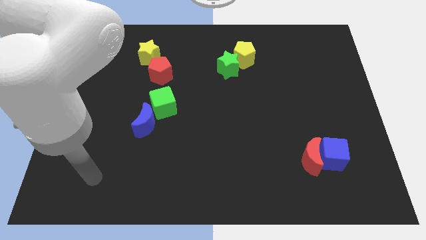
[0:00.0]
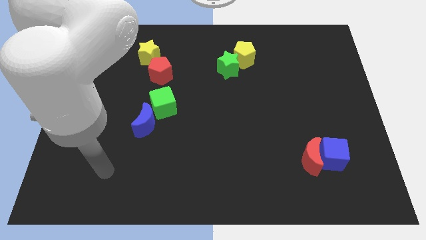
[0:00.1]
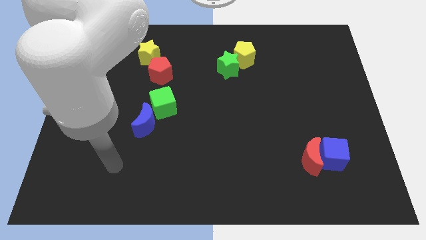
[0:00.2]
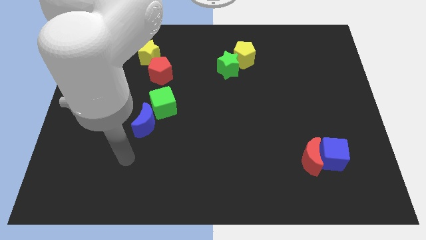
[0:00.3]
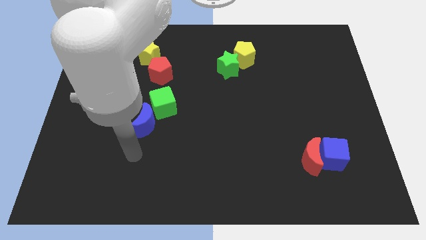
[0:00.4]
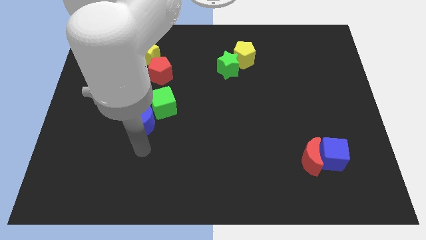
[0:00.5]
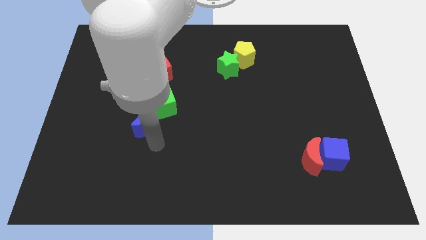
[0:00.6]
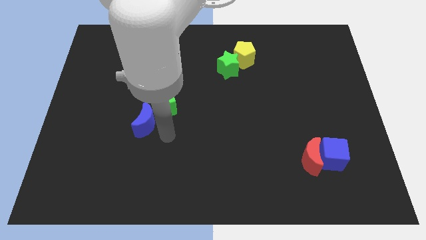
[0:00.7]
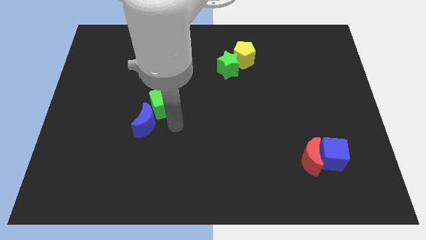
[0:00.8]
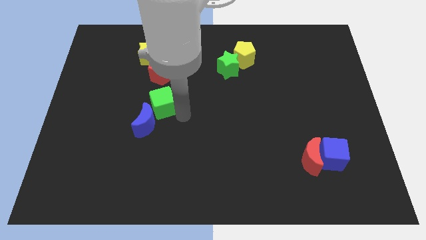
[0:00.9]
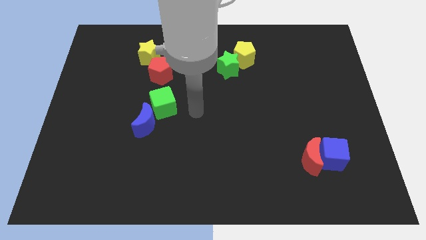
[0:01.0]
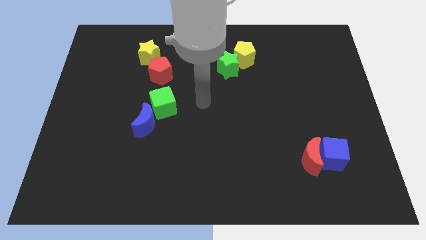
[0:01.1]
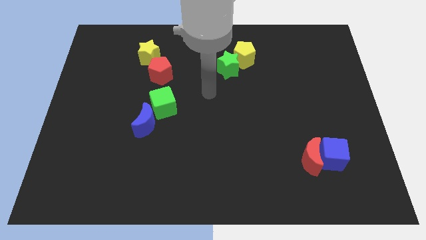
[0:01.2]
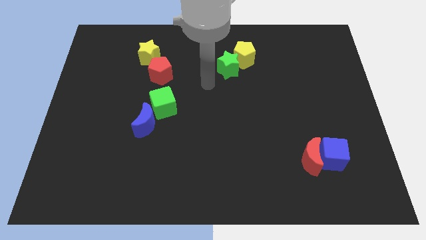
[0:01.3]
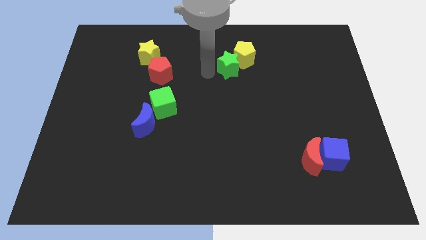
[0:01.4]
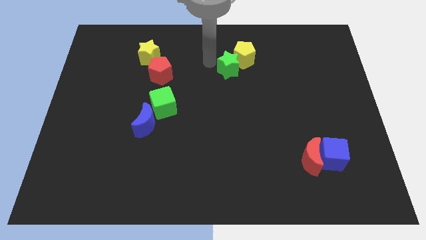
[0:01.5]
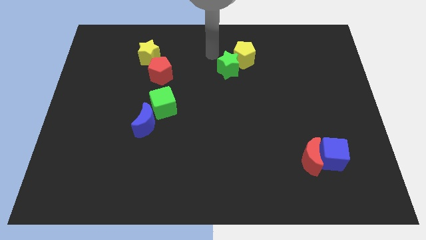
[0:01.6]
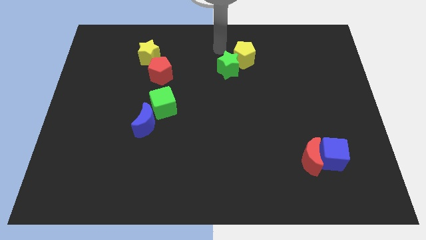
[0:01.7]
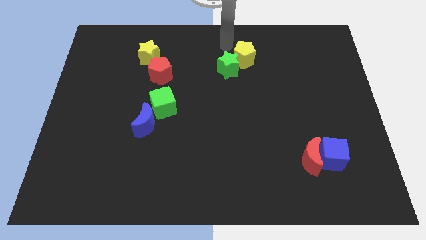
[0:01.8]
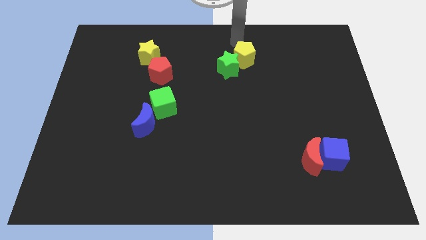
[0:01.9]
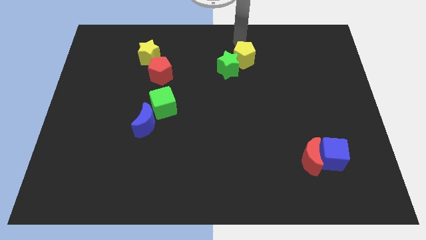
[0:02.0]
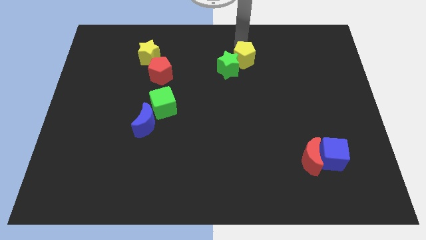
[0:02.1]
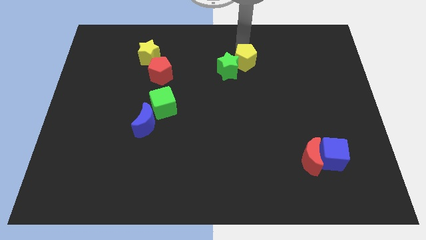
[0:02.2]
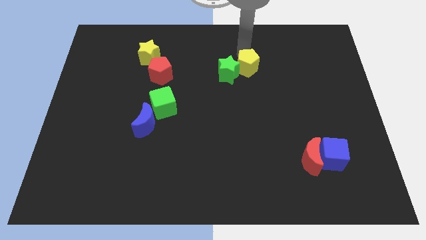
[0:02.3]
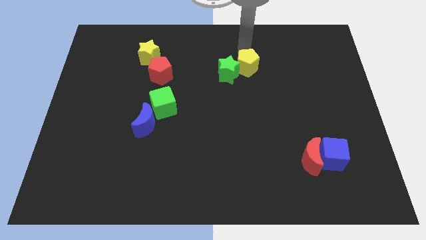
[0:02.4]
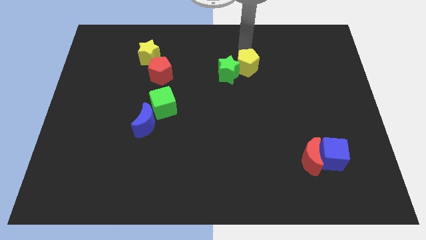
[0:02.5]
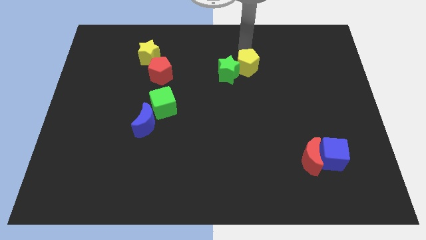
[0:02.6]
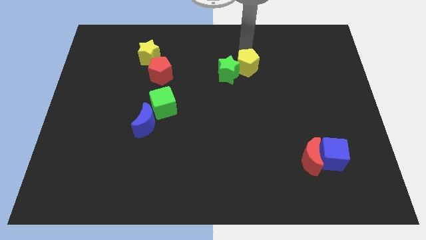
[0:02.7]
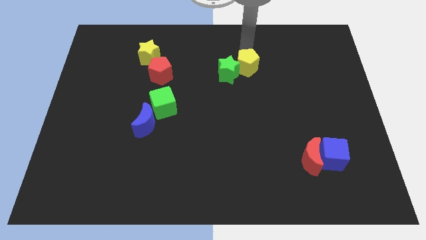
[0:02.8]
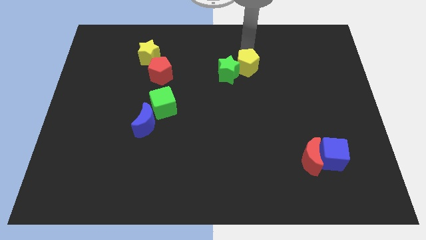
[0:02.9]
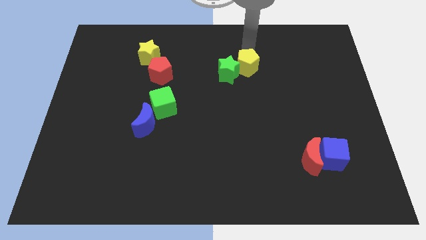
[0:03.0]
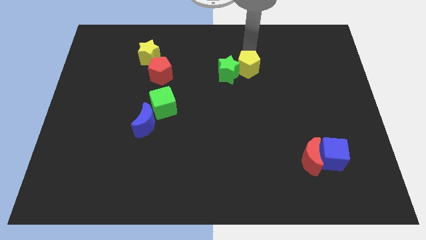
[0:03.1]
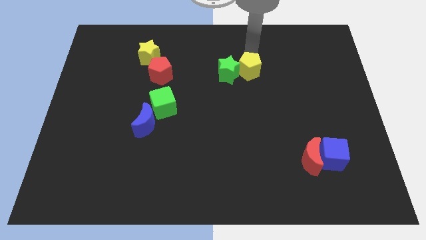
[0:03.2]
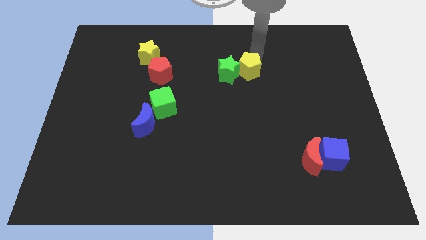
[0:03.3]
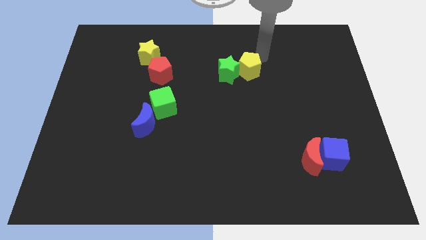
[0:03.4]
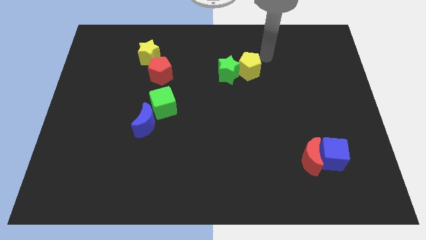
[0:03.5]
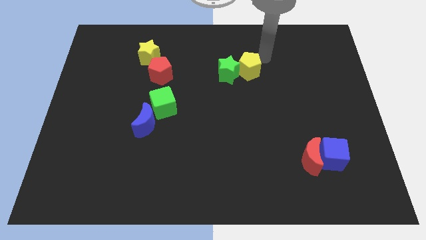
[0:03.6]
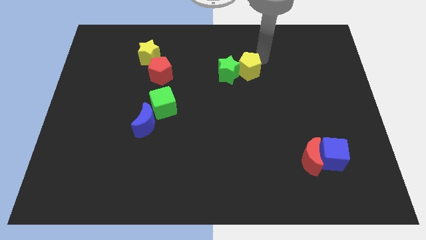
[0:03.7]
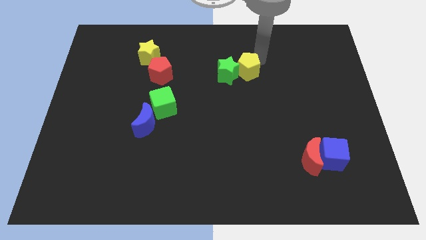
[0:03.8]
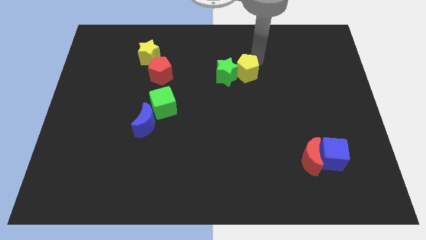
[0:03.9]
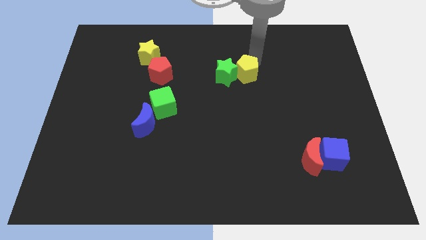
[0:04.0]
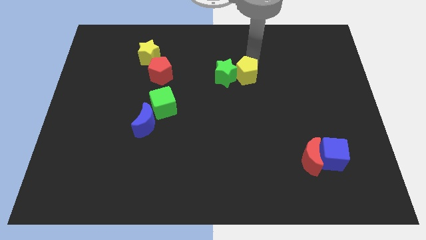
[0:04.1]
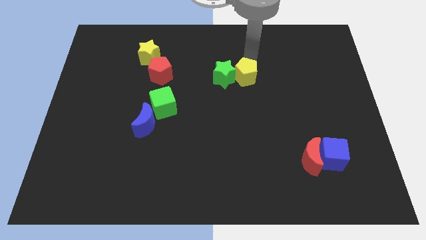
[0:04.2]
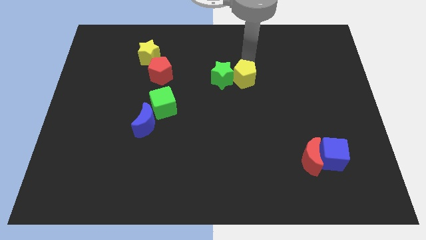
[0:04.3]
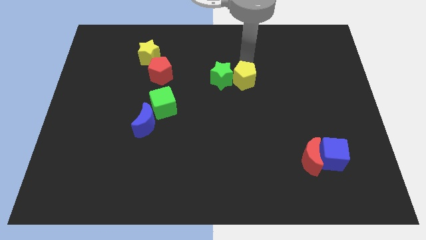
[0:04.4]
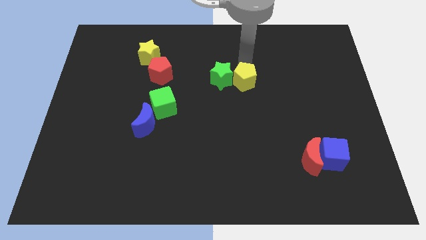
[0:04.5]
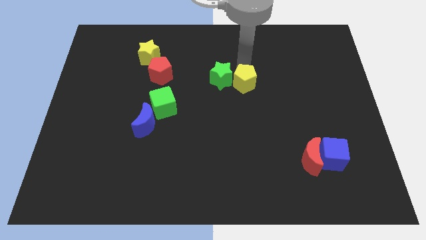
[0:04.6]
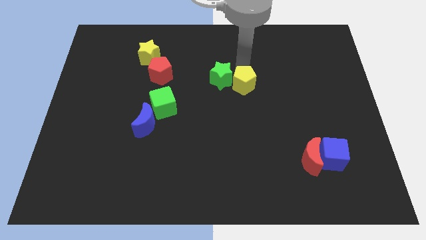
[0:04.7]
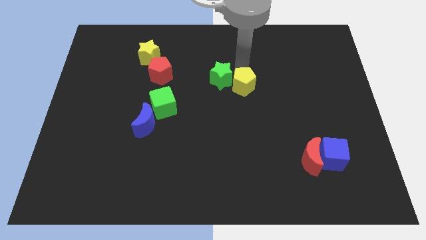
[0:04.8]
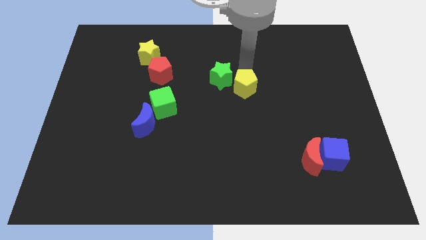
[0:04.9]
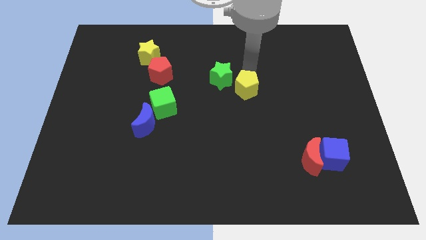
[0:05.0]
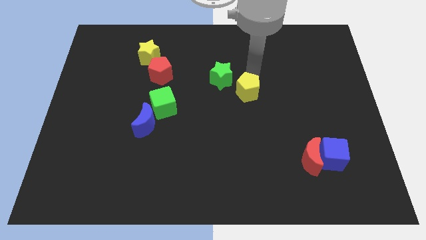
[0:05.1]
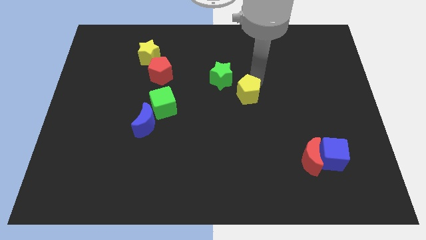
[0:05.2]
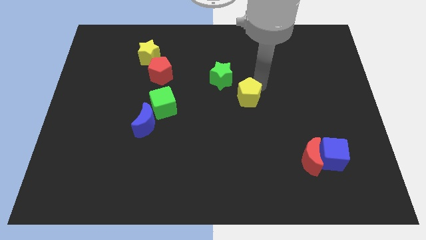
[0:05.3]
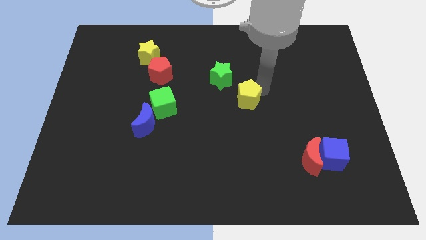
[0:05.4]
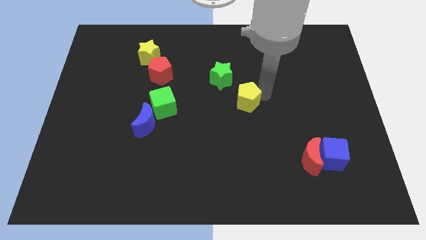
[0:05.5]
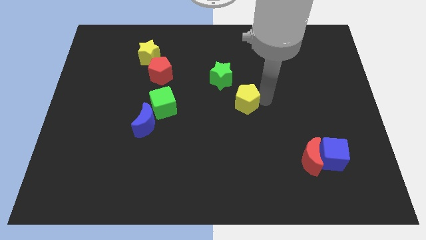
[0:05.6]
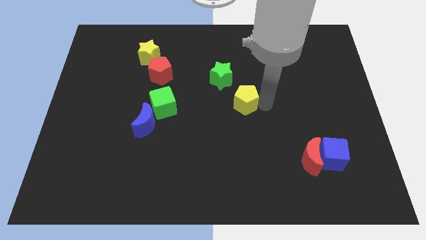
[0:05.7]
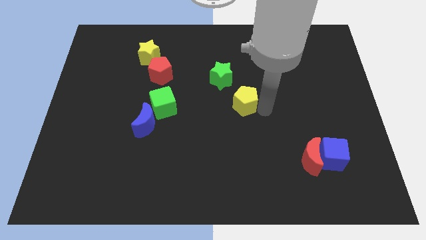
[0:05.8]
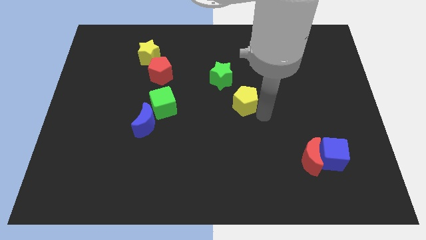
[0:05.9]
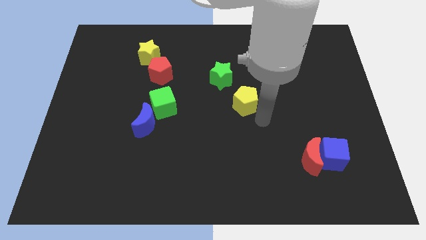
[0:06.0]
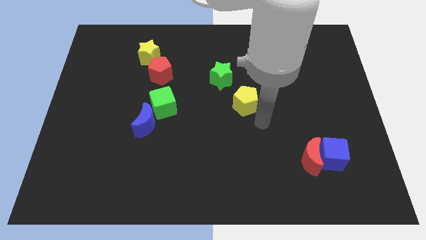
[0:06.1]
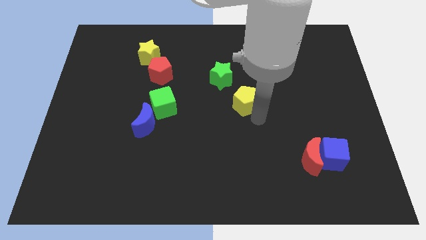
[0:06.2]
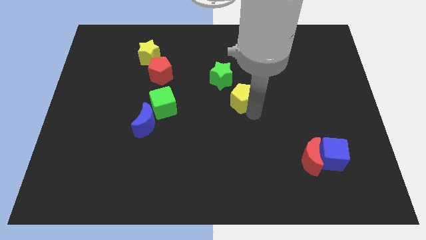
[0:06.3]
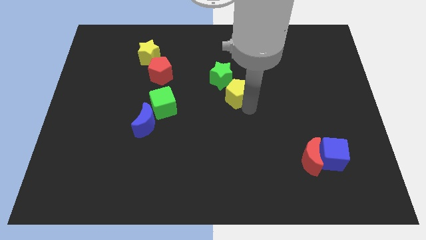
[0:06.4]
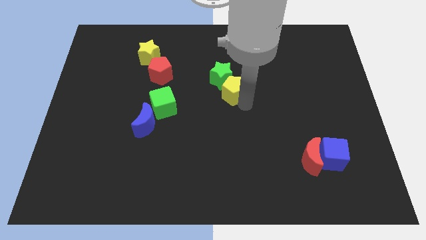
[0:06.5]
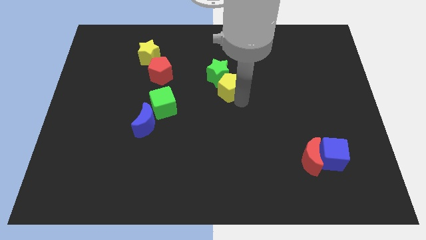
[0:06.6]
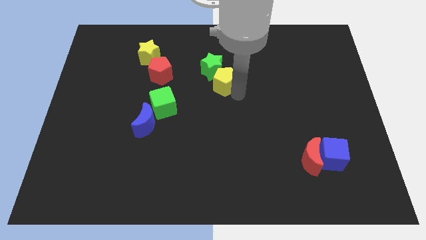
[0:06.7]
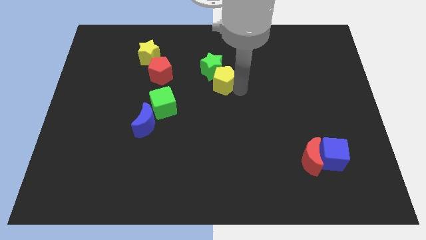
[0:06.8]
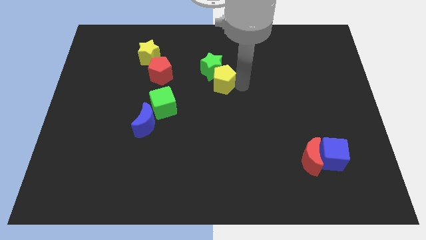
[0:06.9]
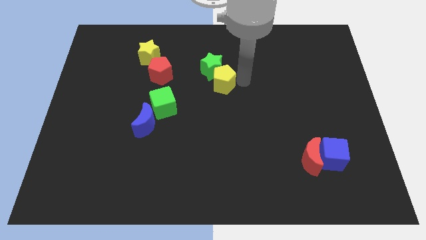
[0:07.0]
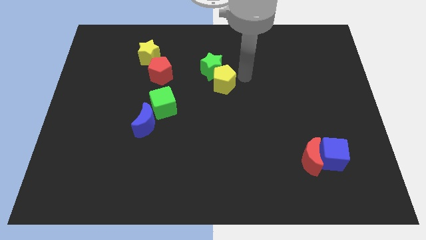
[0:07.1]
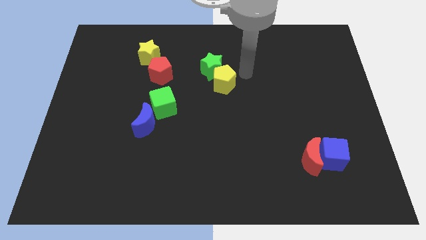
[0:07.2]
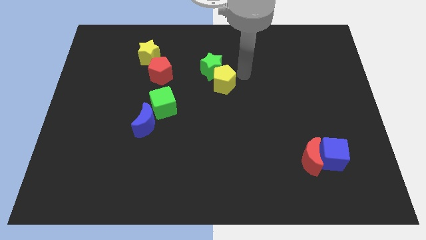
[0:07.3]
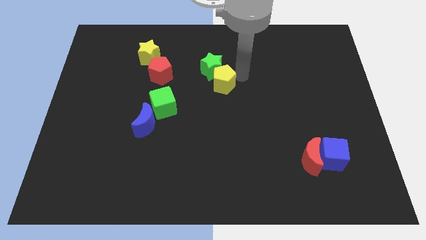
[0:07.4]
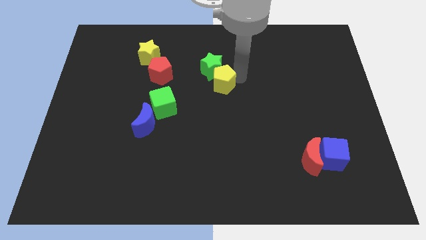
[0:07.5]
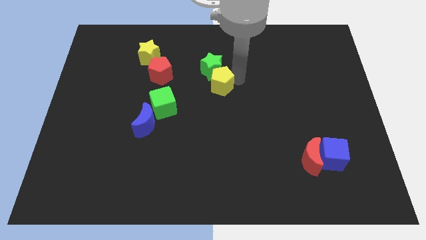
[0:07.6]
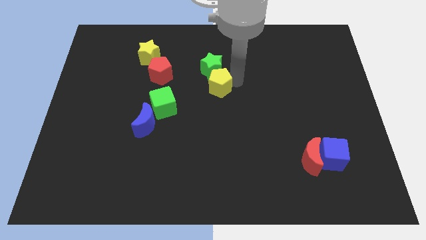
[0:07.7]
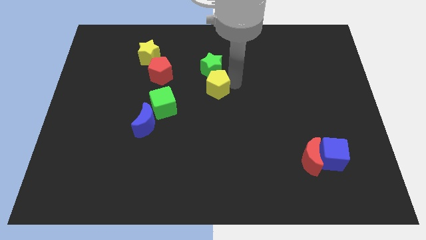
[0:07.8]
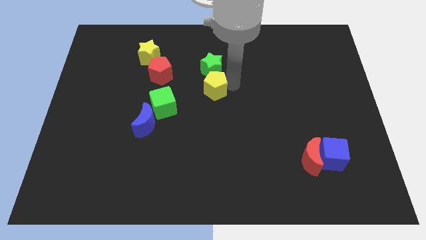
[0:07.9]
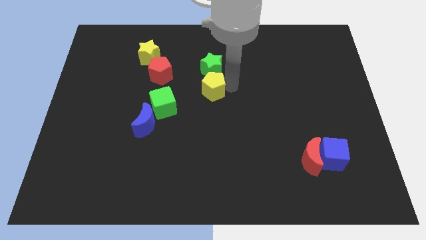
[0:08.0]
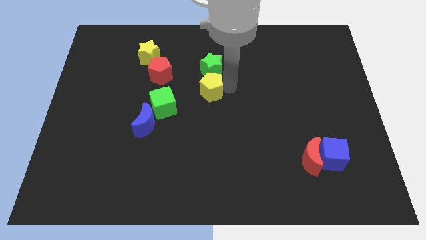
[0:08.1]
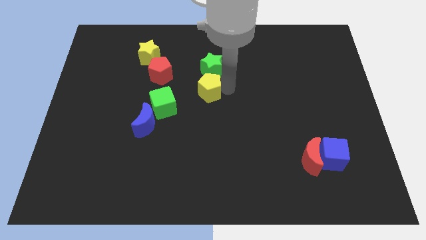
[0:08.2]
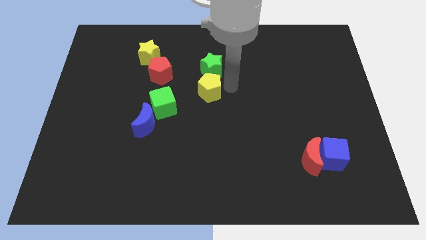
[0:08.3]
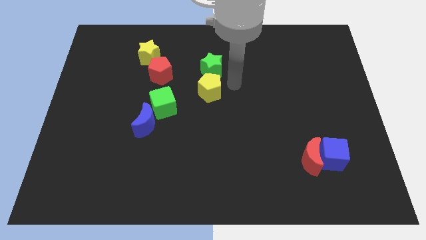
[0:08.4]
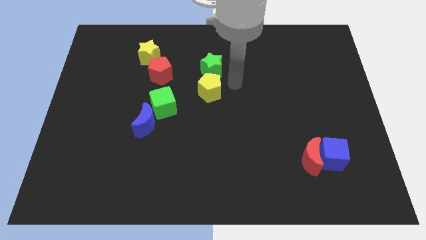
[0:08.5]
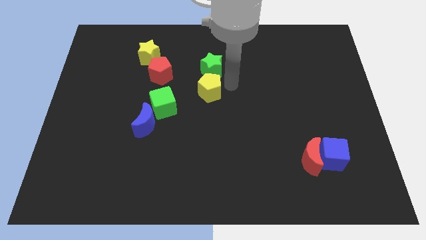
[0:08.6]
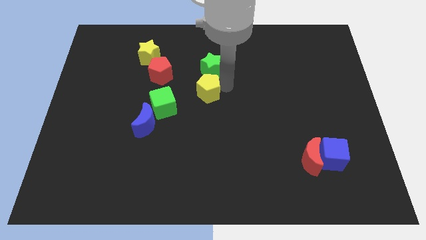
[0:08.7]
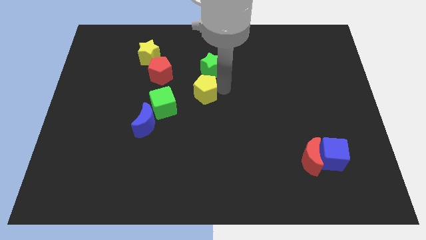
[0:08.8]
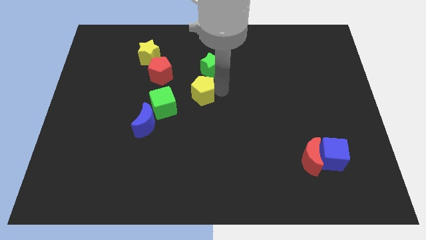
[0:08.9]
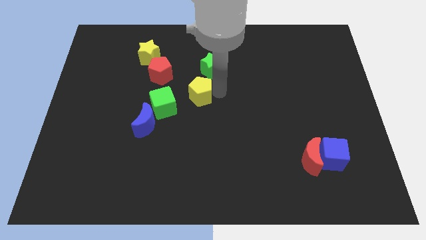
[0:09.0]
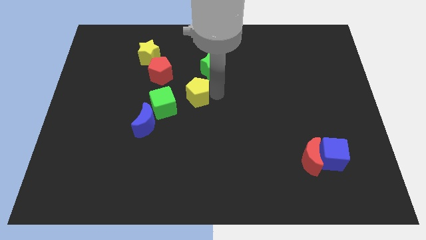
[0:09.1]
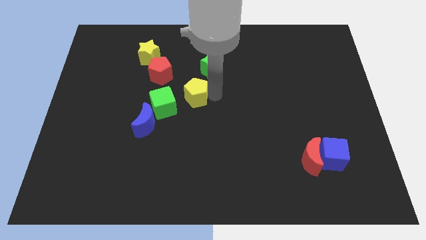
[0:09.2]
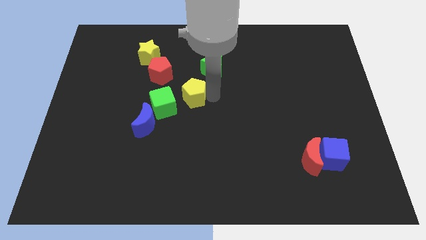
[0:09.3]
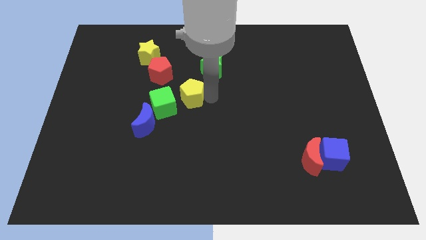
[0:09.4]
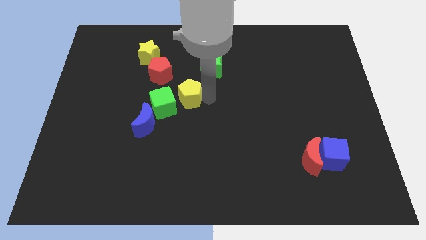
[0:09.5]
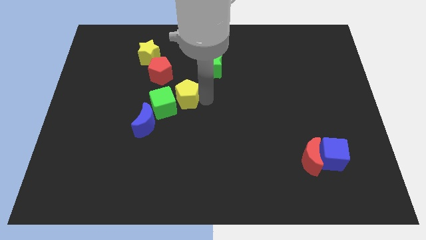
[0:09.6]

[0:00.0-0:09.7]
push the yellow pentagon next to the green cube
